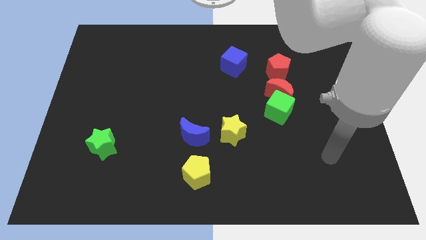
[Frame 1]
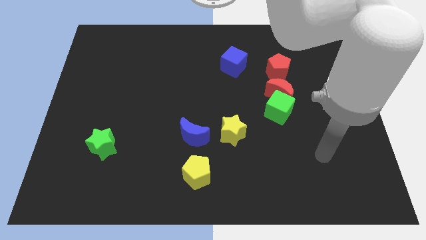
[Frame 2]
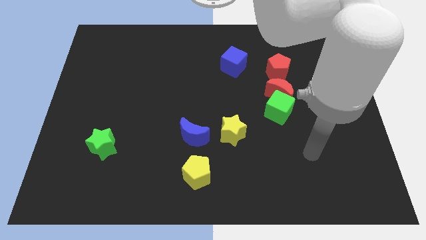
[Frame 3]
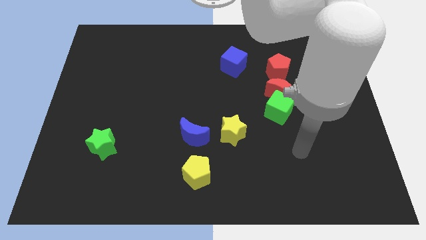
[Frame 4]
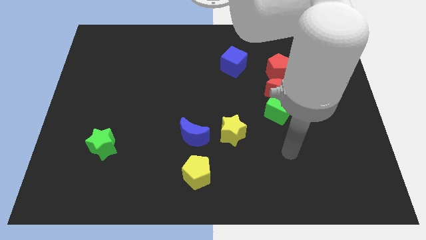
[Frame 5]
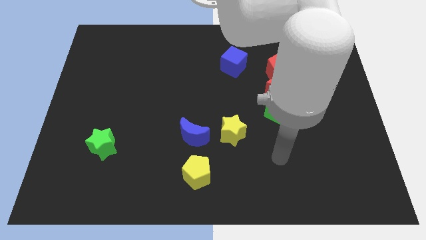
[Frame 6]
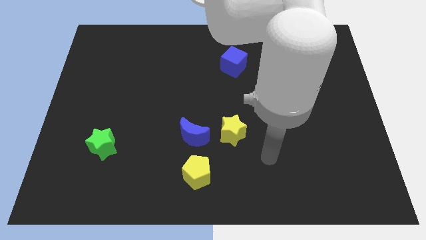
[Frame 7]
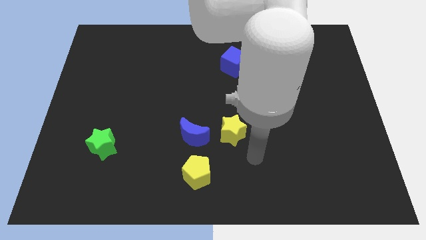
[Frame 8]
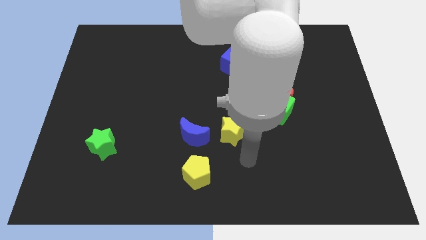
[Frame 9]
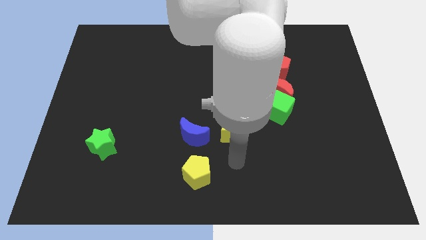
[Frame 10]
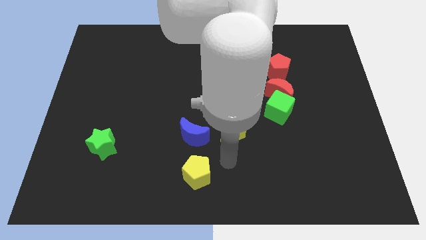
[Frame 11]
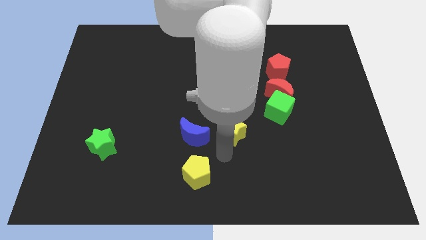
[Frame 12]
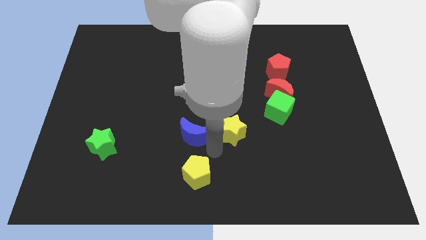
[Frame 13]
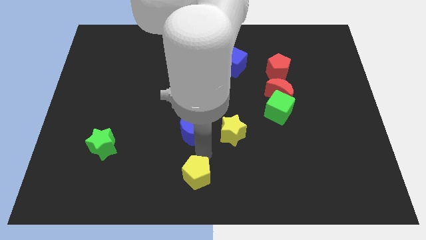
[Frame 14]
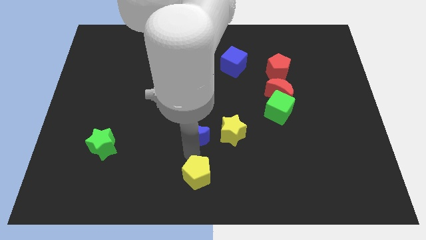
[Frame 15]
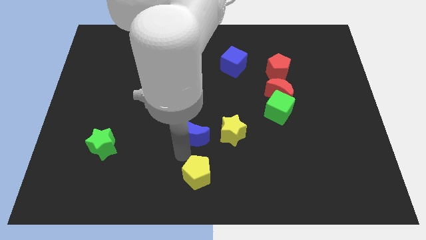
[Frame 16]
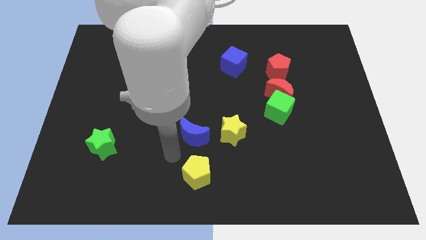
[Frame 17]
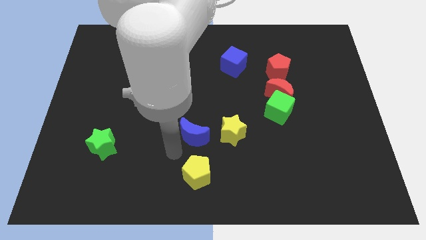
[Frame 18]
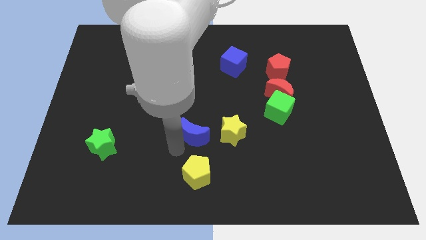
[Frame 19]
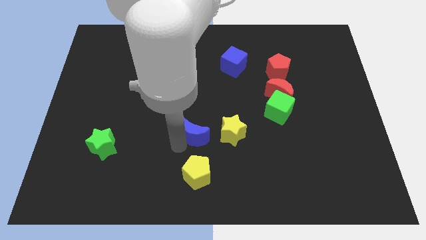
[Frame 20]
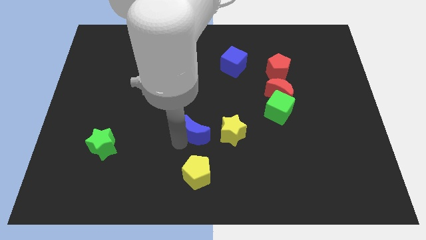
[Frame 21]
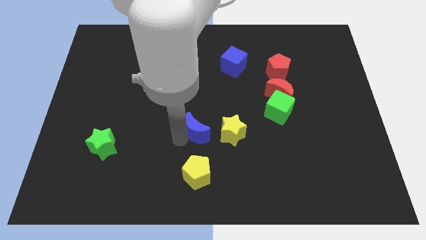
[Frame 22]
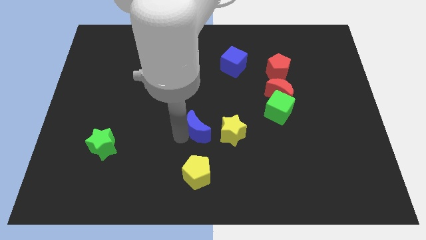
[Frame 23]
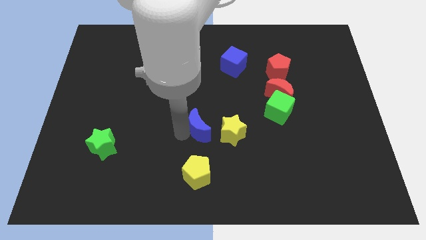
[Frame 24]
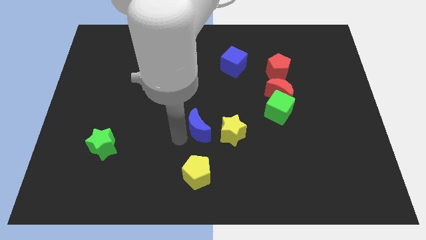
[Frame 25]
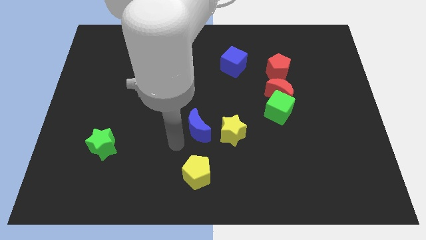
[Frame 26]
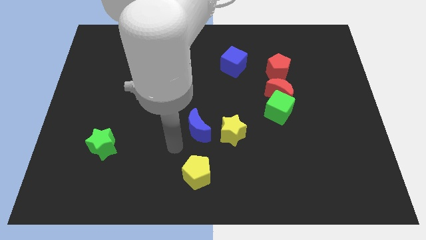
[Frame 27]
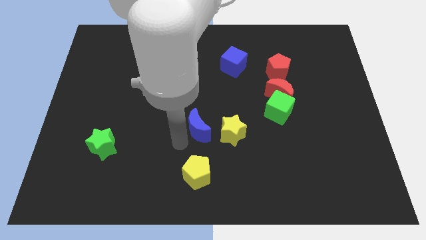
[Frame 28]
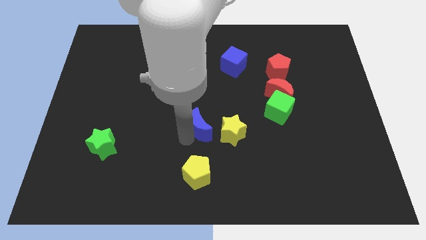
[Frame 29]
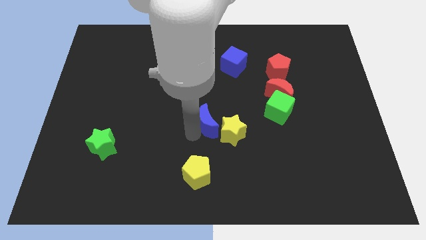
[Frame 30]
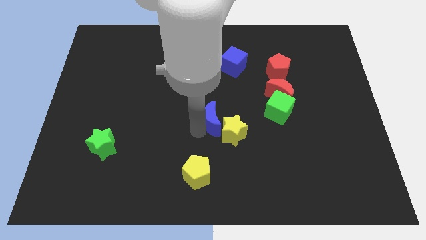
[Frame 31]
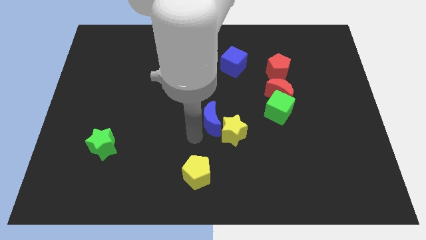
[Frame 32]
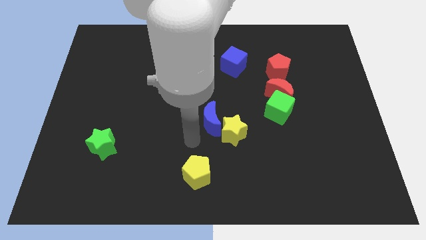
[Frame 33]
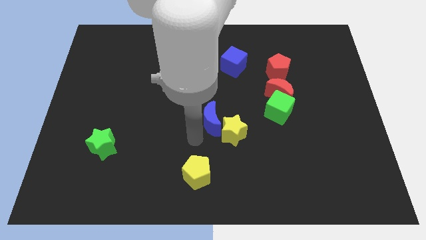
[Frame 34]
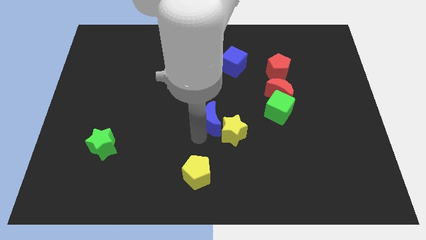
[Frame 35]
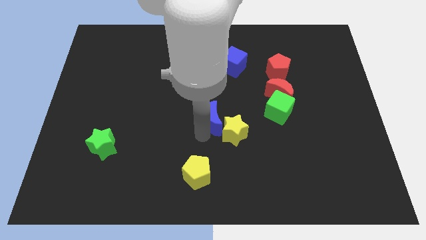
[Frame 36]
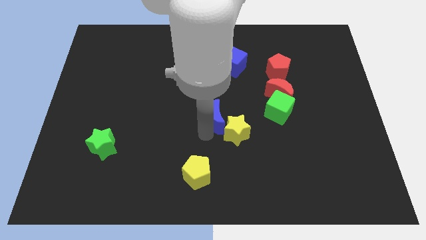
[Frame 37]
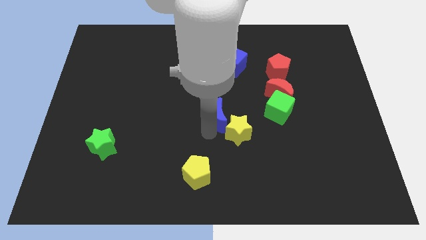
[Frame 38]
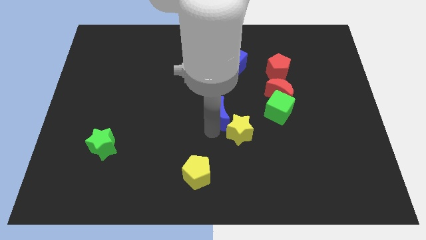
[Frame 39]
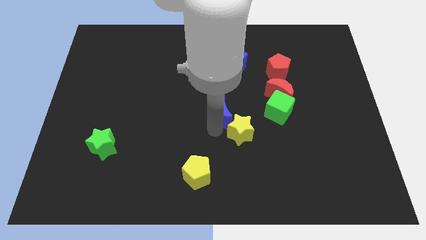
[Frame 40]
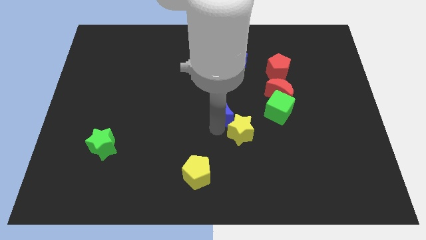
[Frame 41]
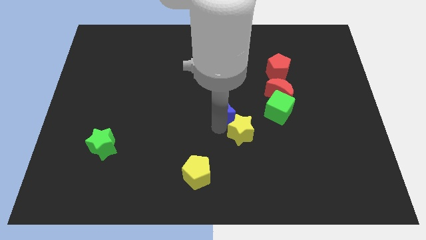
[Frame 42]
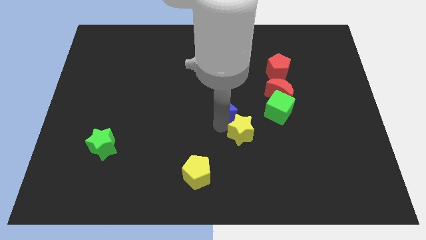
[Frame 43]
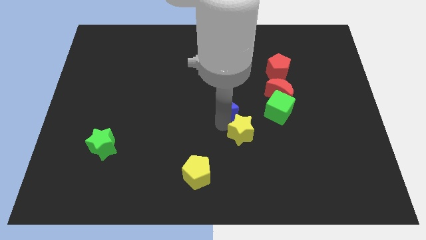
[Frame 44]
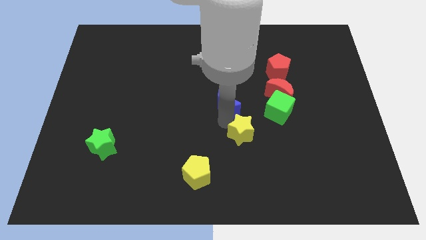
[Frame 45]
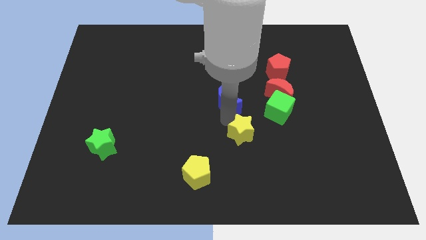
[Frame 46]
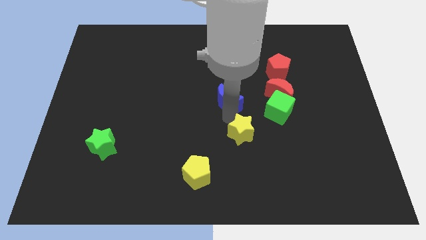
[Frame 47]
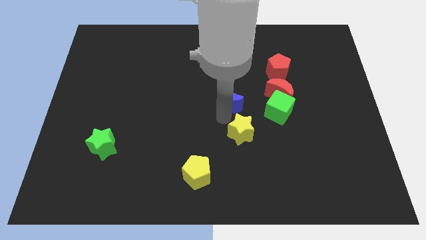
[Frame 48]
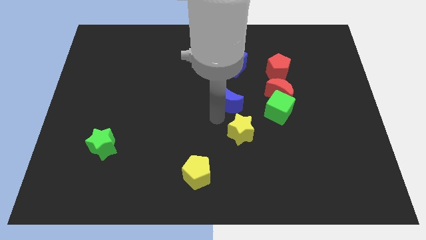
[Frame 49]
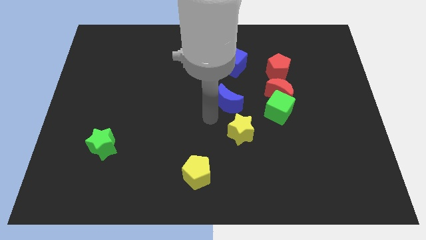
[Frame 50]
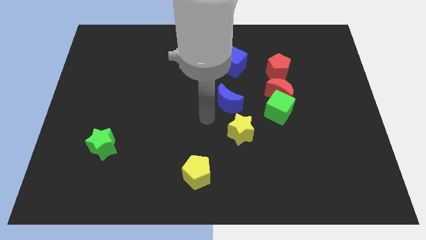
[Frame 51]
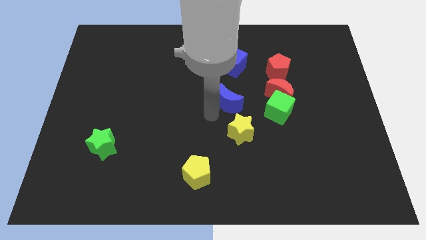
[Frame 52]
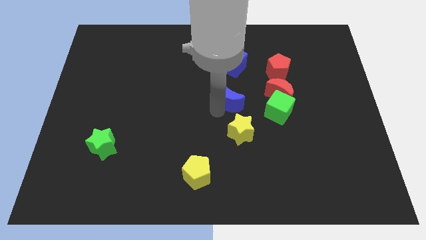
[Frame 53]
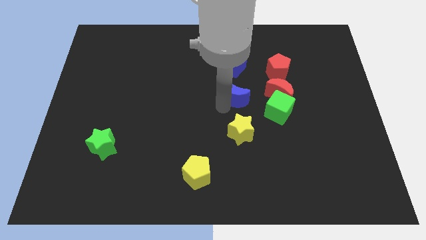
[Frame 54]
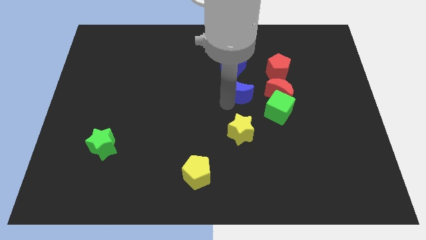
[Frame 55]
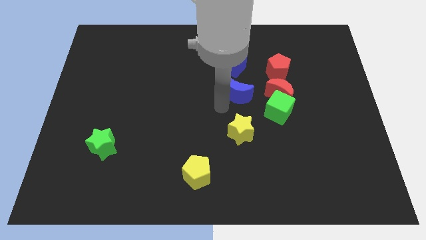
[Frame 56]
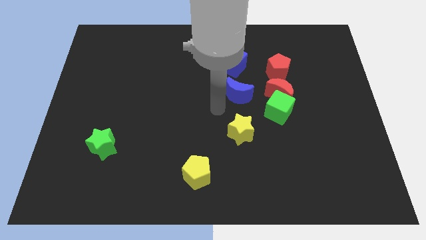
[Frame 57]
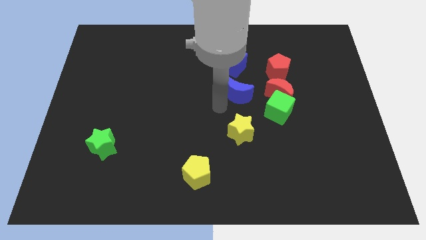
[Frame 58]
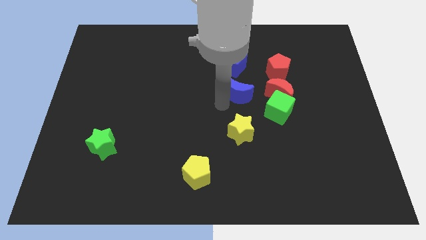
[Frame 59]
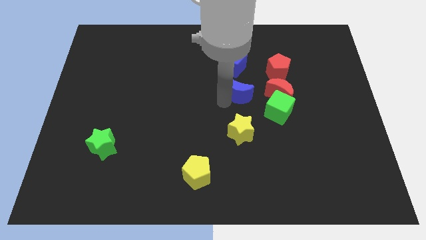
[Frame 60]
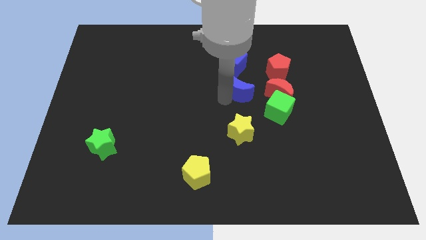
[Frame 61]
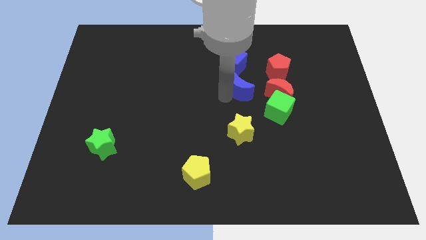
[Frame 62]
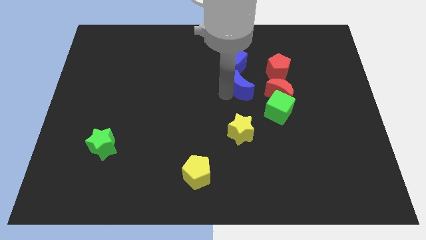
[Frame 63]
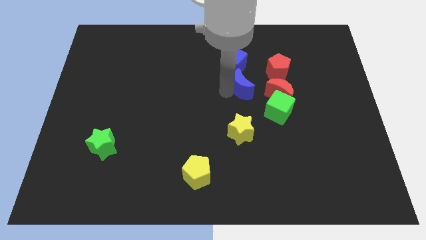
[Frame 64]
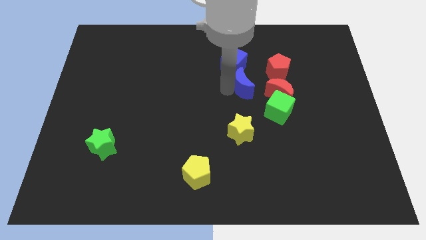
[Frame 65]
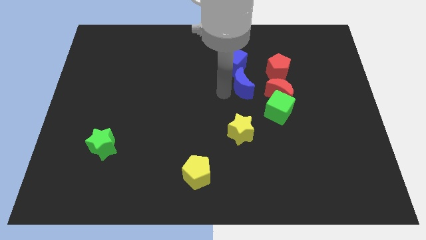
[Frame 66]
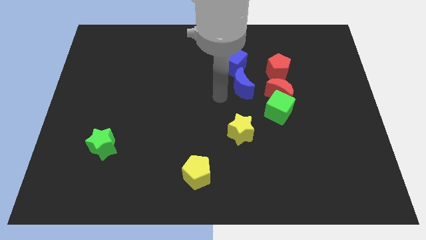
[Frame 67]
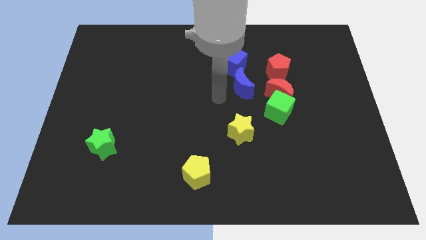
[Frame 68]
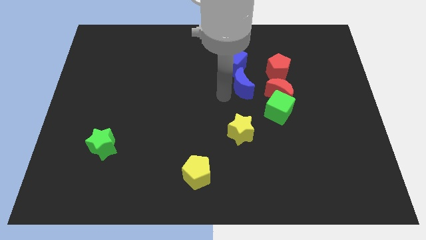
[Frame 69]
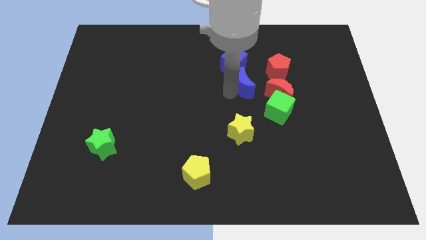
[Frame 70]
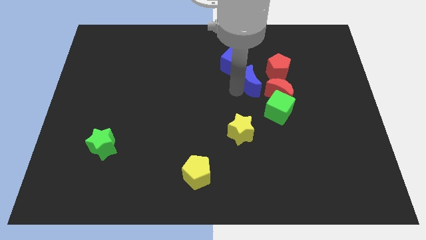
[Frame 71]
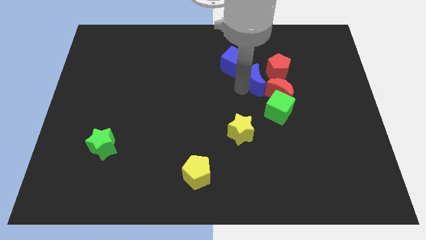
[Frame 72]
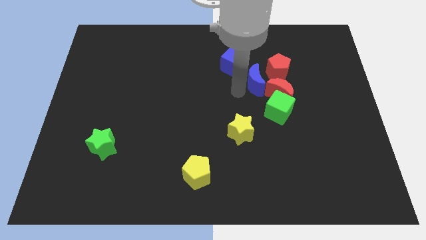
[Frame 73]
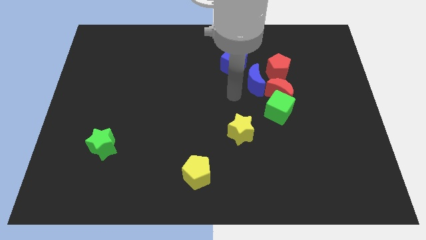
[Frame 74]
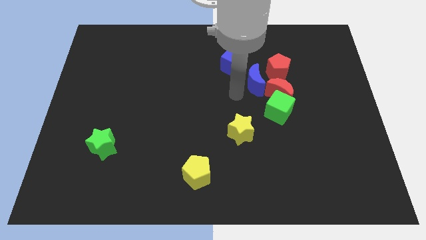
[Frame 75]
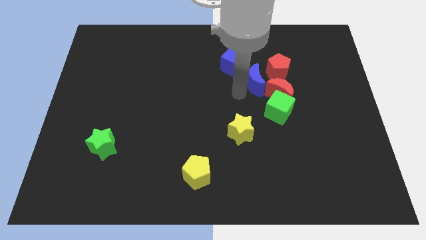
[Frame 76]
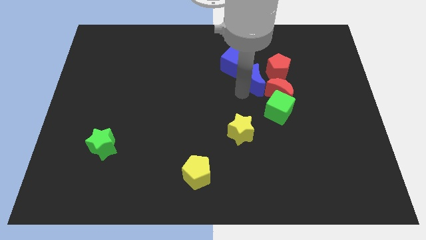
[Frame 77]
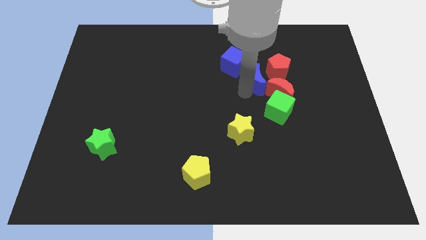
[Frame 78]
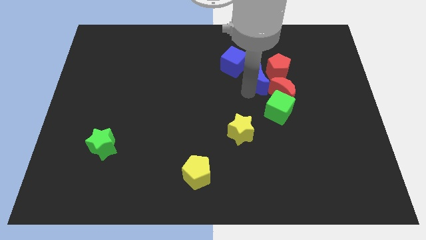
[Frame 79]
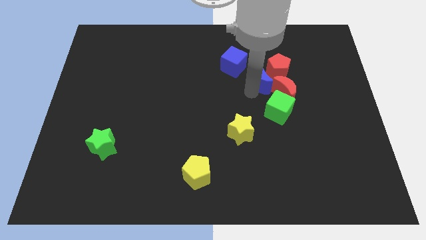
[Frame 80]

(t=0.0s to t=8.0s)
move the blue moon towards the red pentagon
